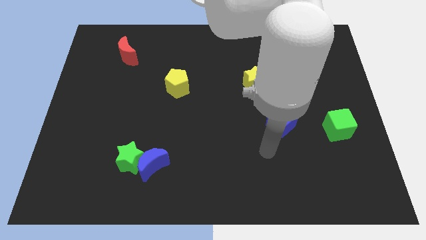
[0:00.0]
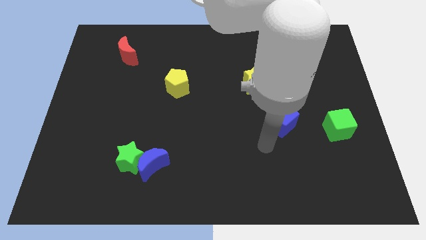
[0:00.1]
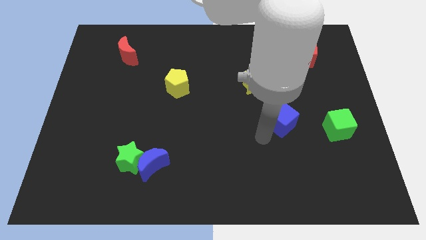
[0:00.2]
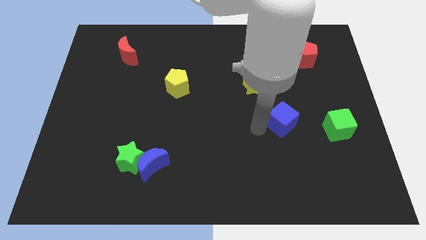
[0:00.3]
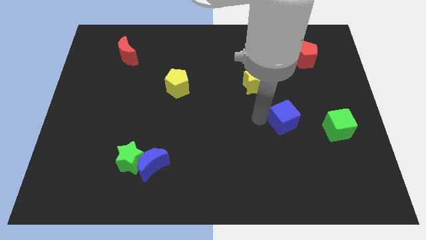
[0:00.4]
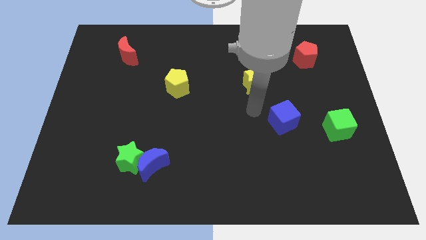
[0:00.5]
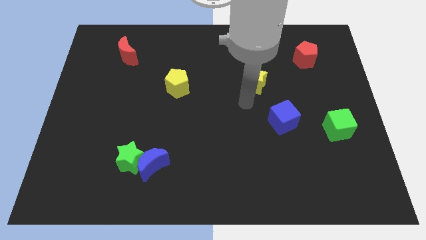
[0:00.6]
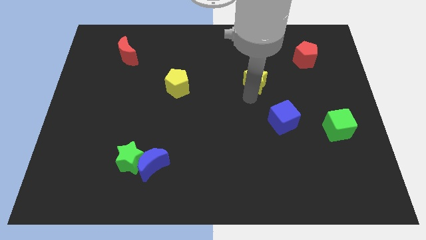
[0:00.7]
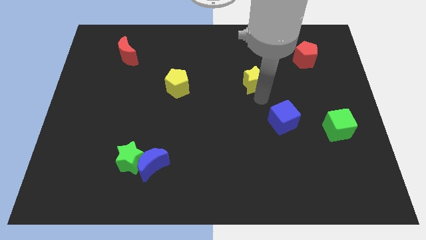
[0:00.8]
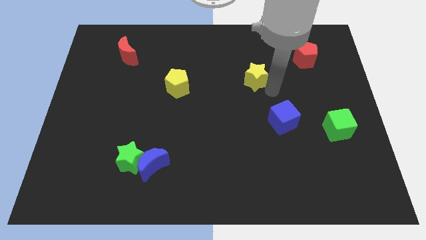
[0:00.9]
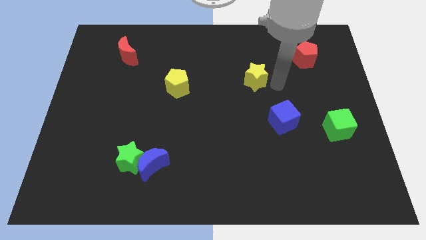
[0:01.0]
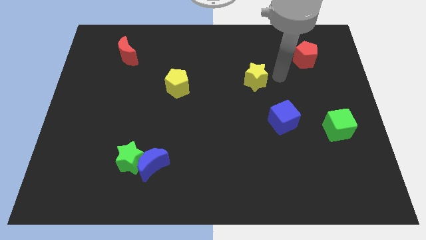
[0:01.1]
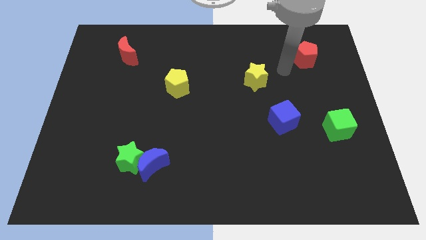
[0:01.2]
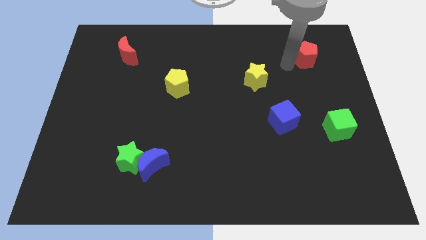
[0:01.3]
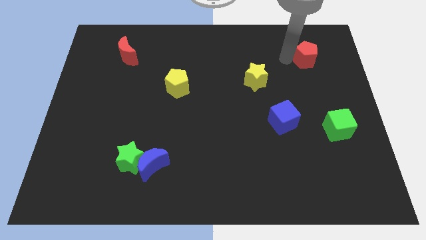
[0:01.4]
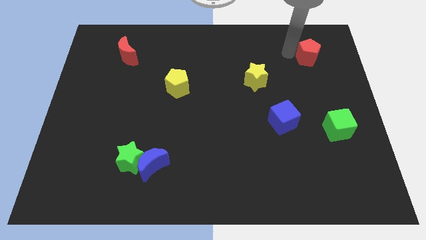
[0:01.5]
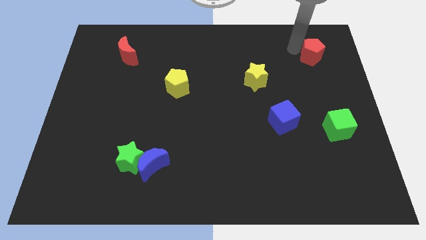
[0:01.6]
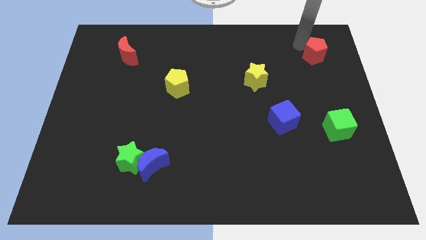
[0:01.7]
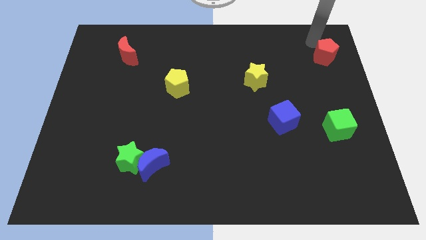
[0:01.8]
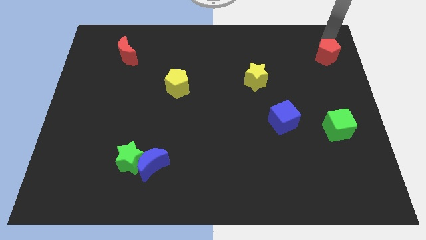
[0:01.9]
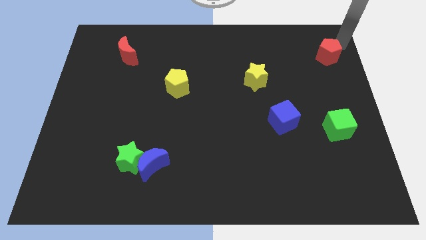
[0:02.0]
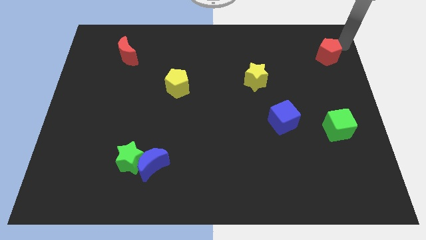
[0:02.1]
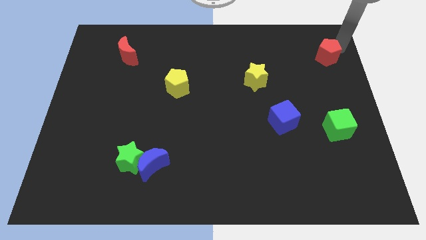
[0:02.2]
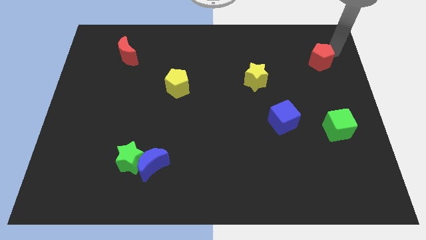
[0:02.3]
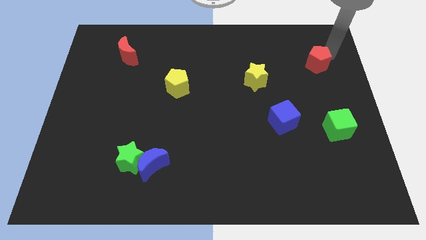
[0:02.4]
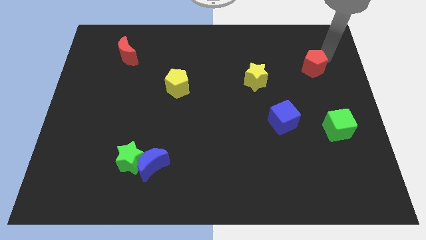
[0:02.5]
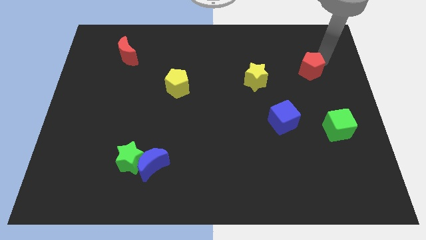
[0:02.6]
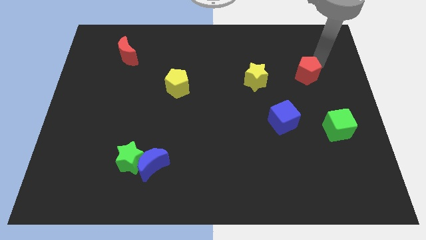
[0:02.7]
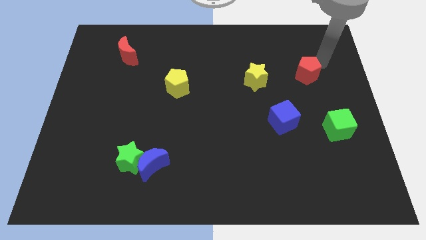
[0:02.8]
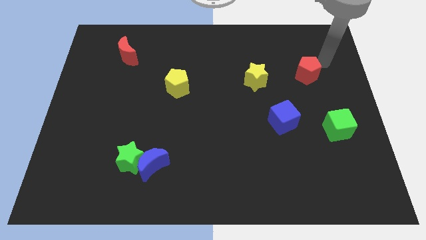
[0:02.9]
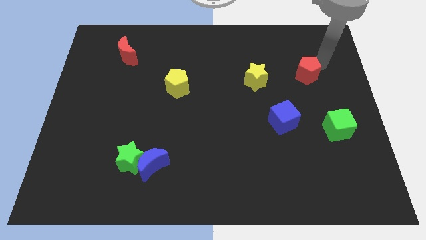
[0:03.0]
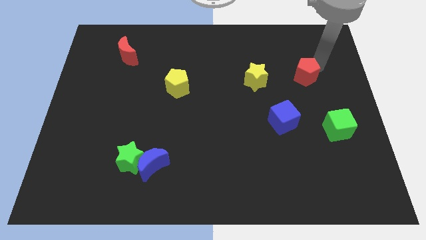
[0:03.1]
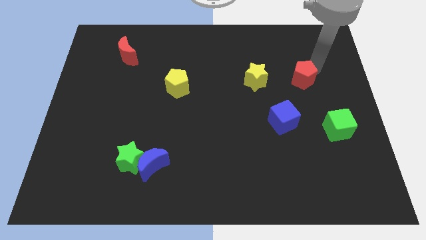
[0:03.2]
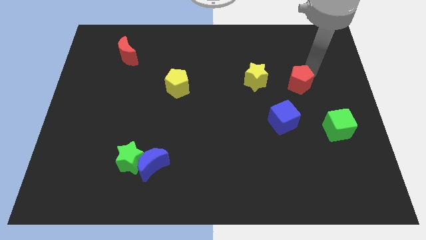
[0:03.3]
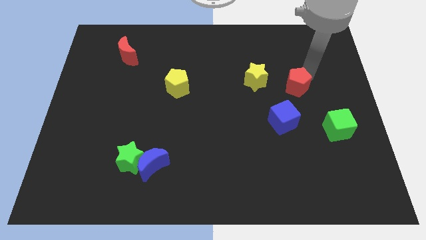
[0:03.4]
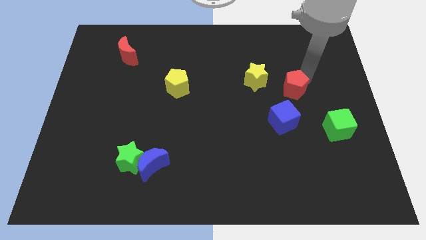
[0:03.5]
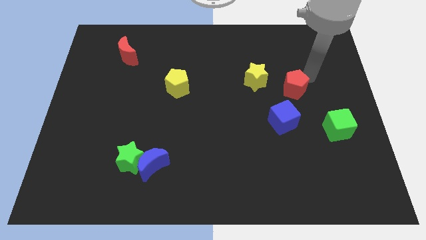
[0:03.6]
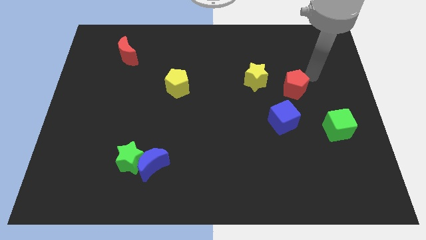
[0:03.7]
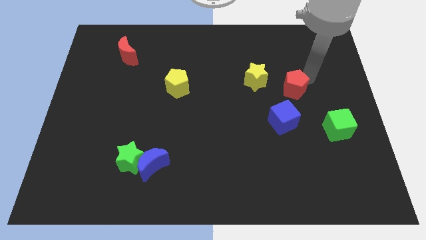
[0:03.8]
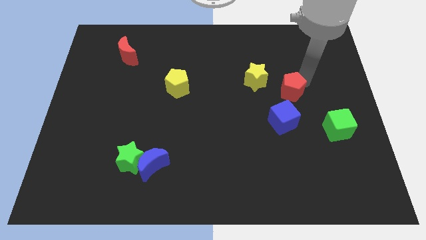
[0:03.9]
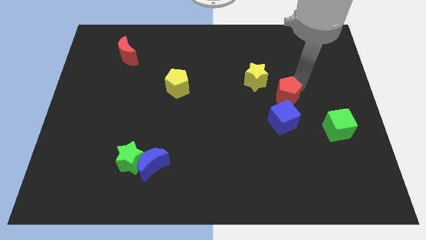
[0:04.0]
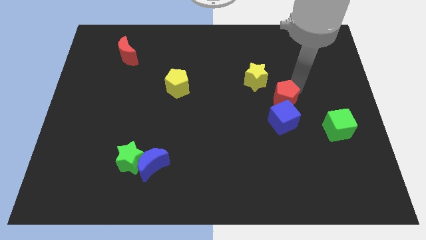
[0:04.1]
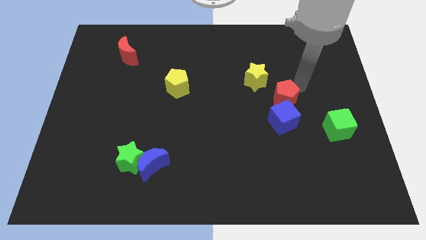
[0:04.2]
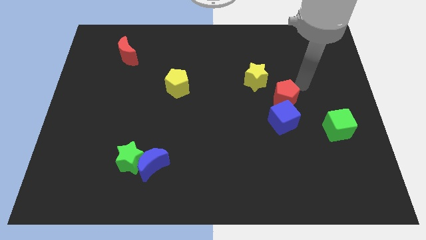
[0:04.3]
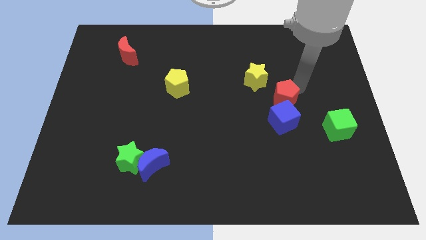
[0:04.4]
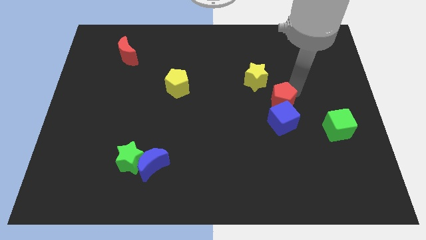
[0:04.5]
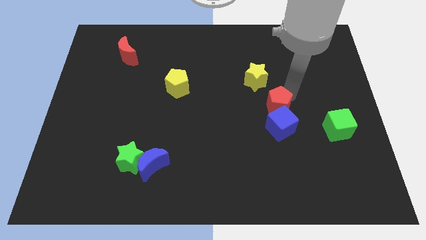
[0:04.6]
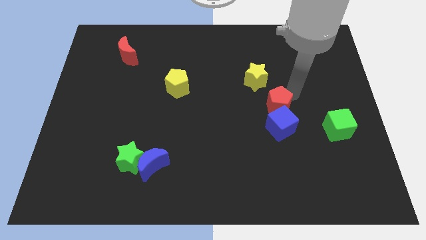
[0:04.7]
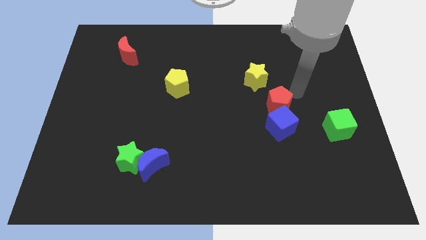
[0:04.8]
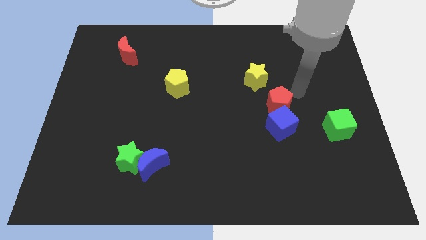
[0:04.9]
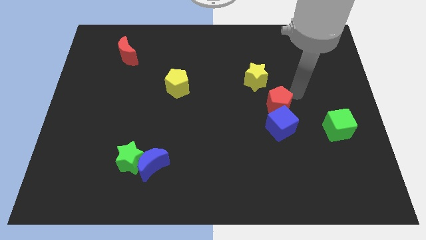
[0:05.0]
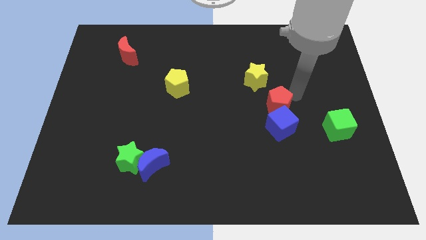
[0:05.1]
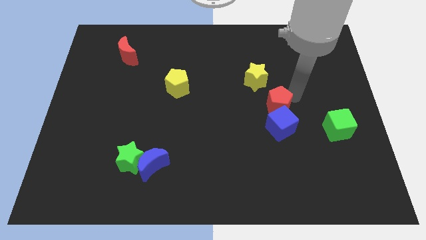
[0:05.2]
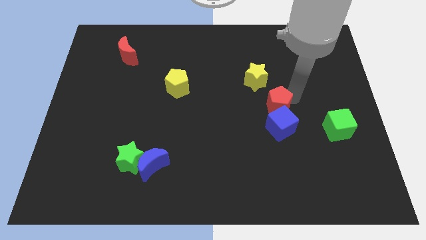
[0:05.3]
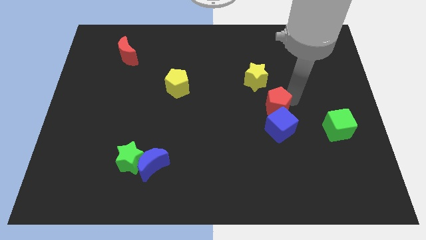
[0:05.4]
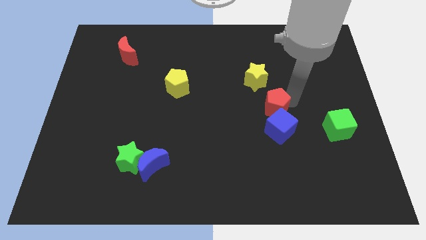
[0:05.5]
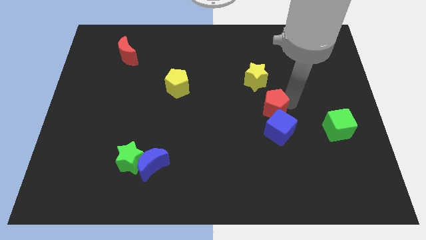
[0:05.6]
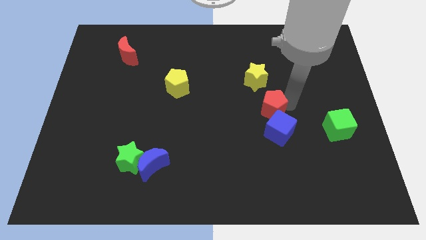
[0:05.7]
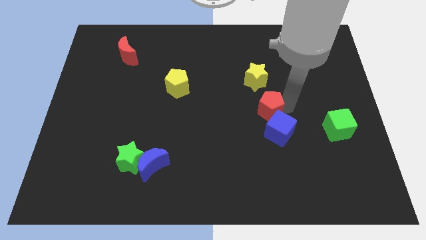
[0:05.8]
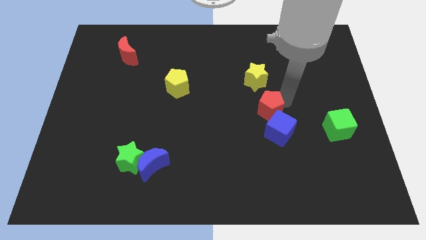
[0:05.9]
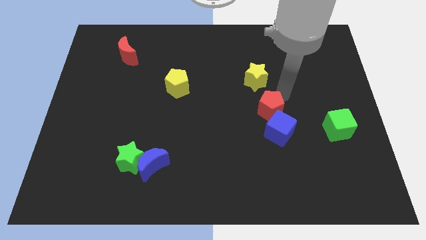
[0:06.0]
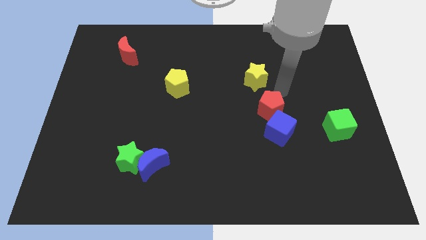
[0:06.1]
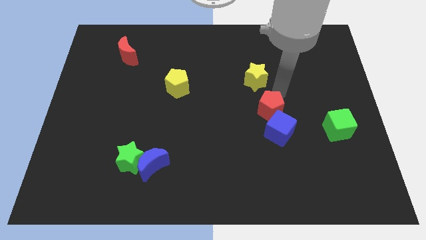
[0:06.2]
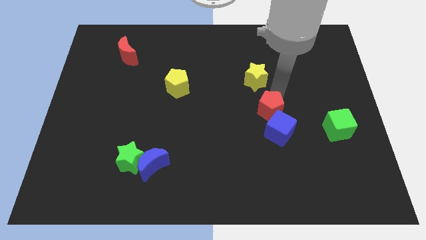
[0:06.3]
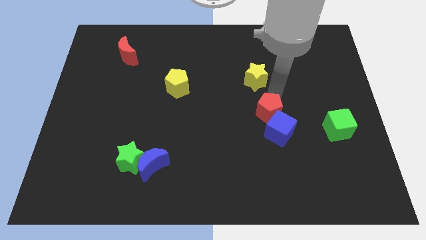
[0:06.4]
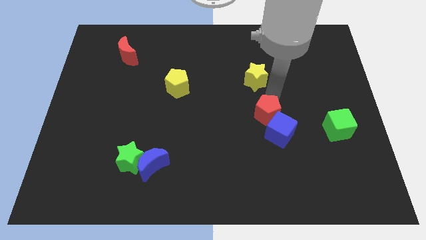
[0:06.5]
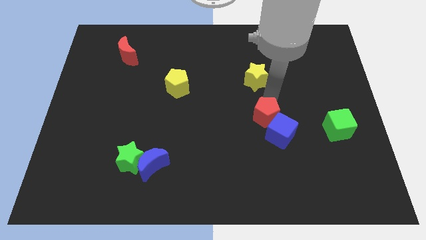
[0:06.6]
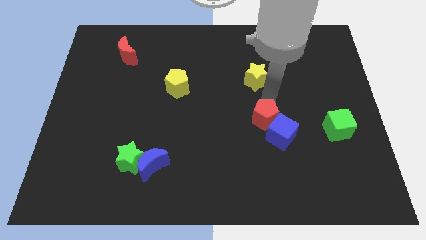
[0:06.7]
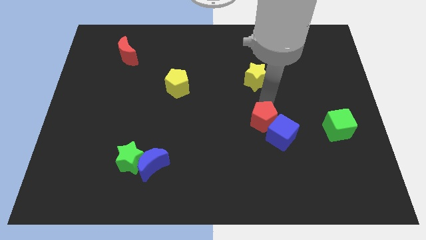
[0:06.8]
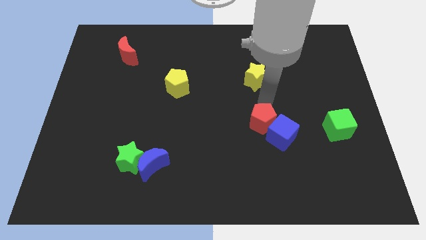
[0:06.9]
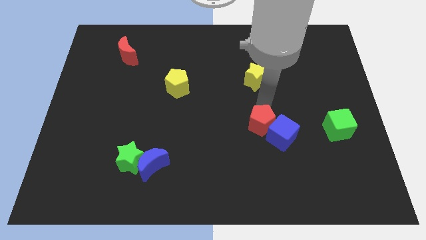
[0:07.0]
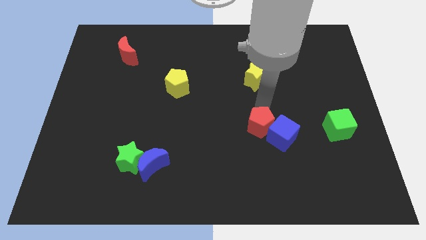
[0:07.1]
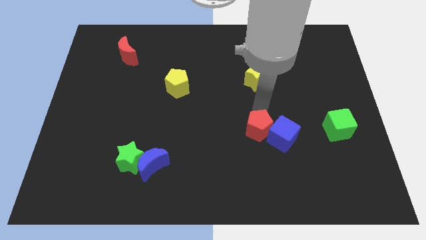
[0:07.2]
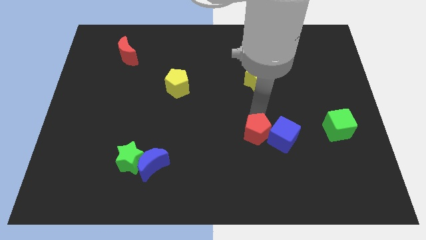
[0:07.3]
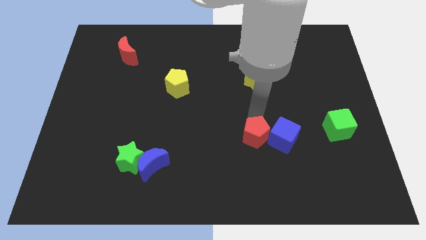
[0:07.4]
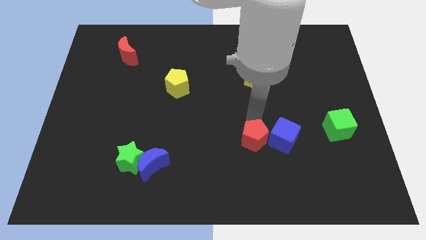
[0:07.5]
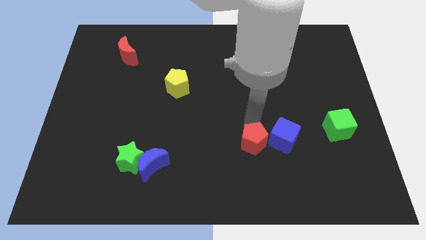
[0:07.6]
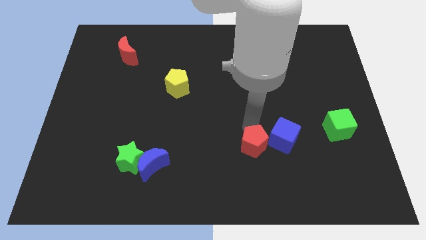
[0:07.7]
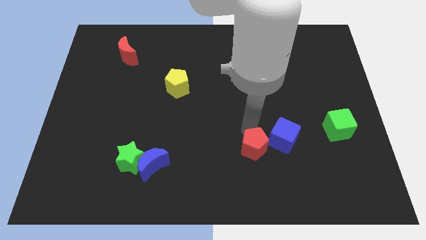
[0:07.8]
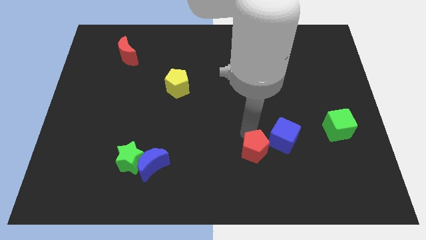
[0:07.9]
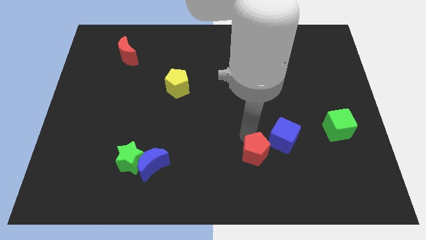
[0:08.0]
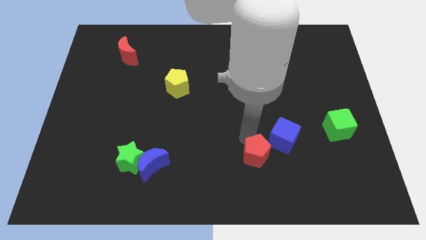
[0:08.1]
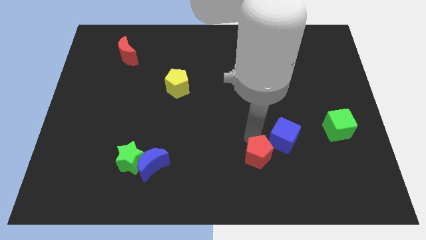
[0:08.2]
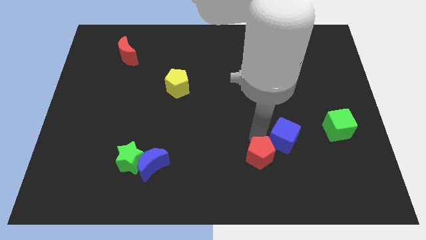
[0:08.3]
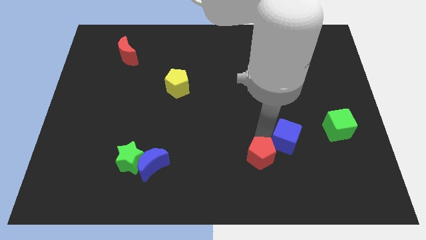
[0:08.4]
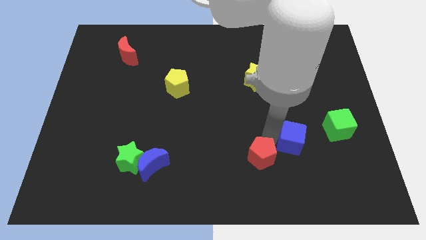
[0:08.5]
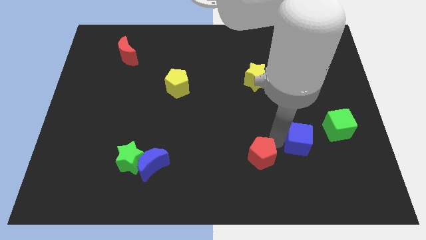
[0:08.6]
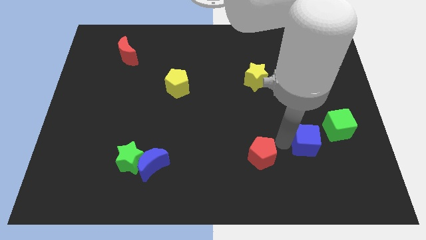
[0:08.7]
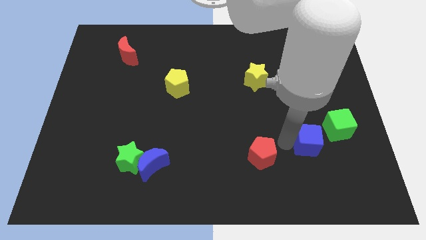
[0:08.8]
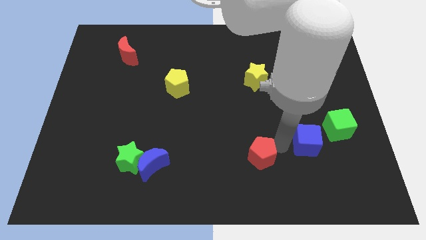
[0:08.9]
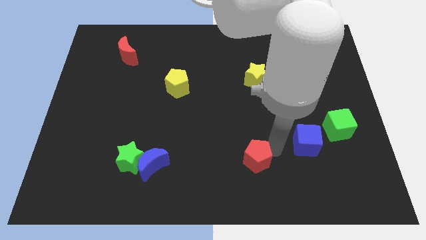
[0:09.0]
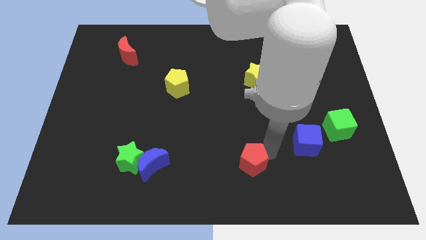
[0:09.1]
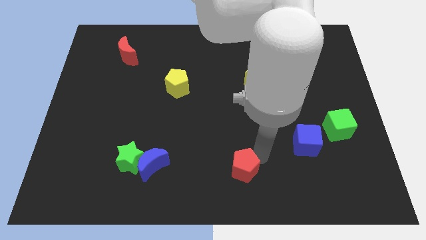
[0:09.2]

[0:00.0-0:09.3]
push the red pentagon to the bottom
